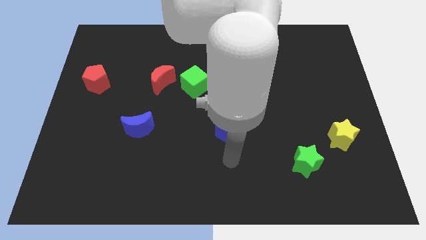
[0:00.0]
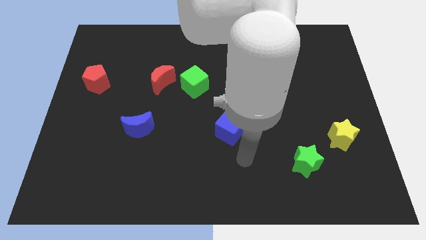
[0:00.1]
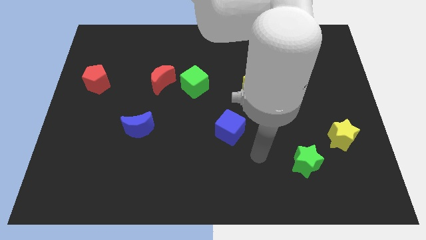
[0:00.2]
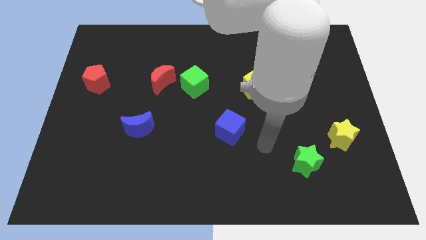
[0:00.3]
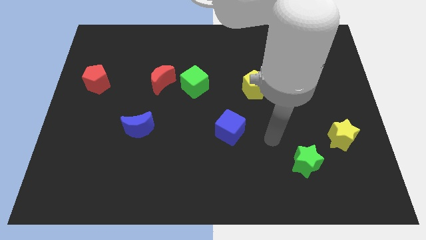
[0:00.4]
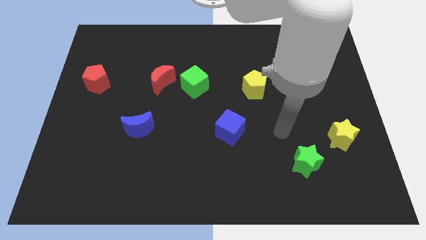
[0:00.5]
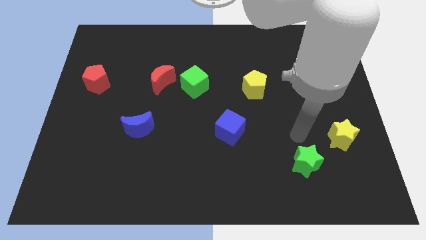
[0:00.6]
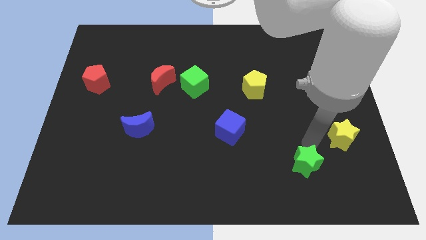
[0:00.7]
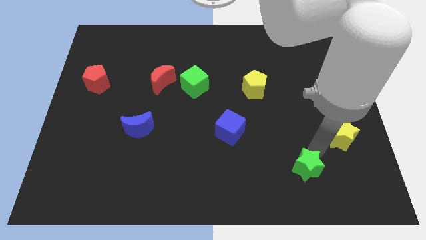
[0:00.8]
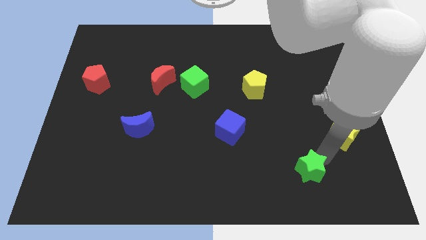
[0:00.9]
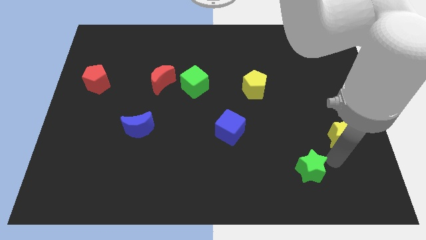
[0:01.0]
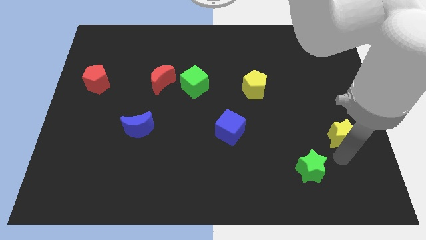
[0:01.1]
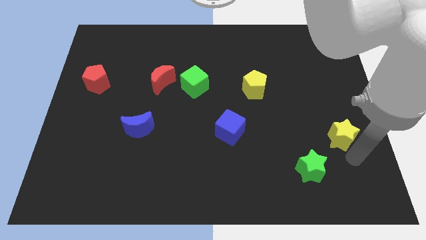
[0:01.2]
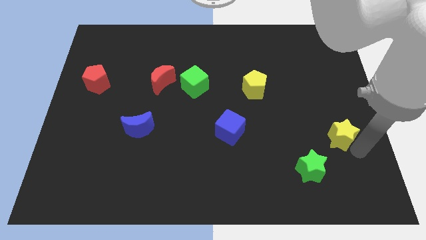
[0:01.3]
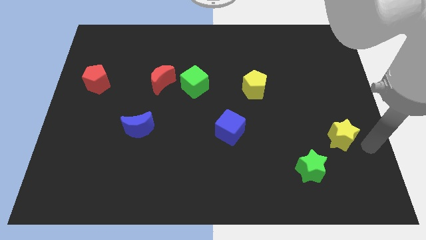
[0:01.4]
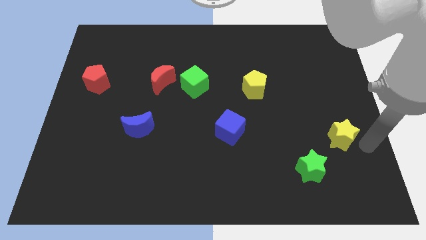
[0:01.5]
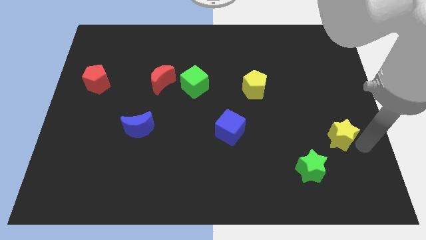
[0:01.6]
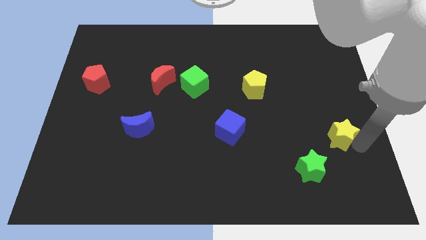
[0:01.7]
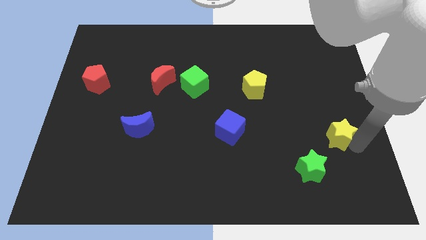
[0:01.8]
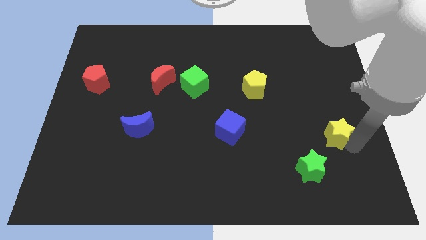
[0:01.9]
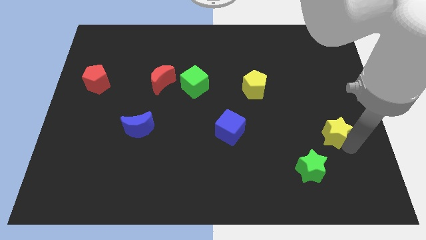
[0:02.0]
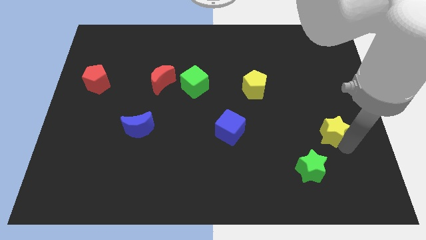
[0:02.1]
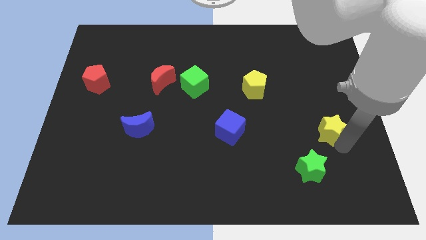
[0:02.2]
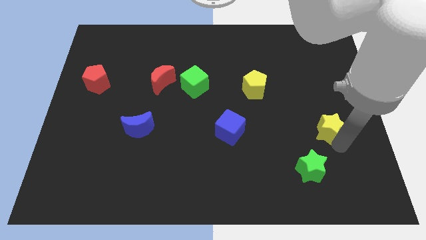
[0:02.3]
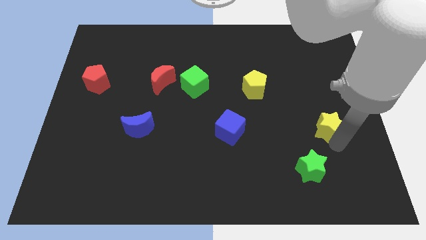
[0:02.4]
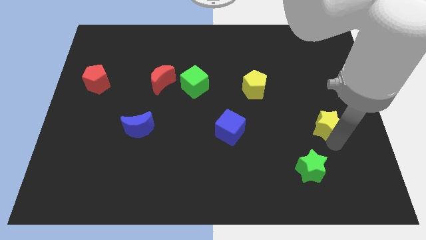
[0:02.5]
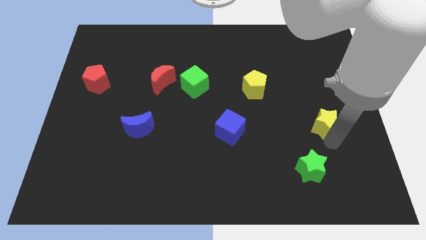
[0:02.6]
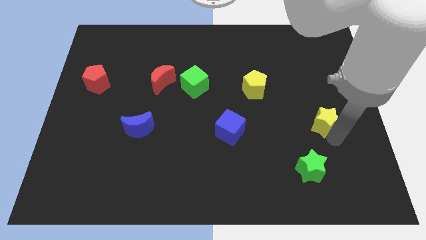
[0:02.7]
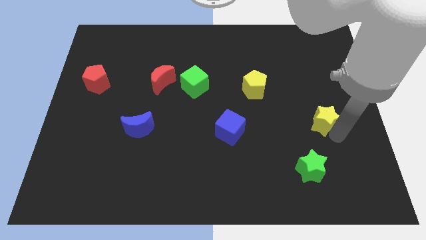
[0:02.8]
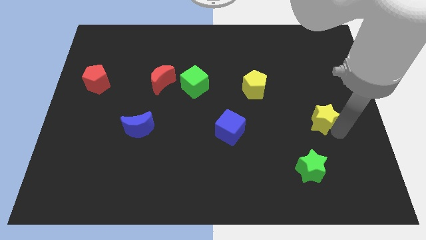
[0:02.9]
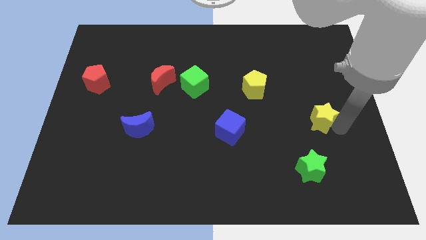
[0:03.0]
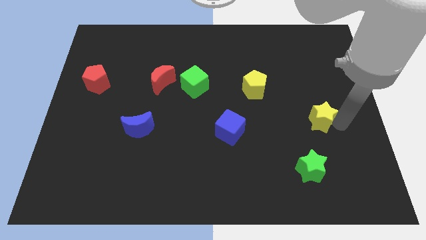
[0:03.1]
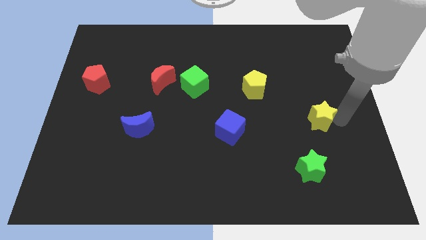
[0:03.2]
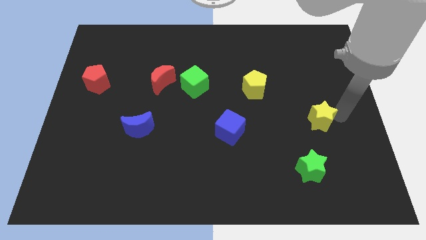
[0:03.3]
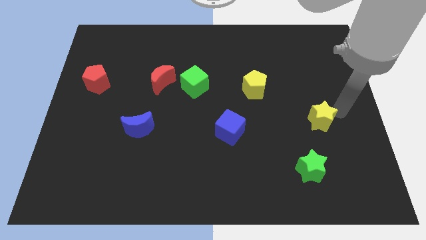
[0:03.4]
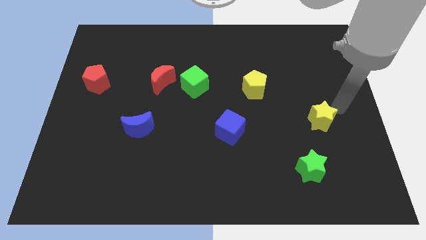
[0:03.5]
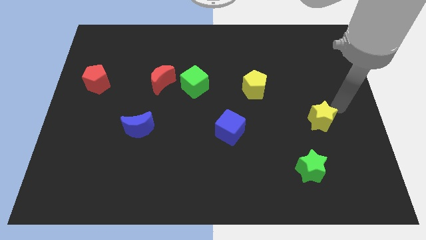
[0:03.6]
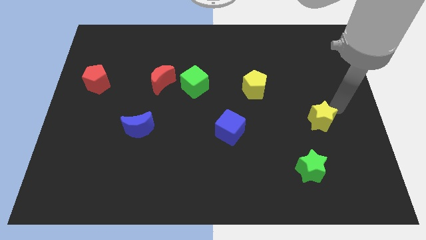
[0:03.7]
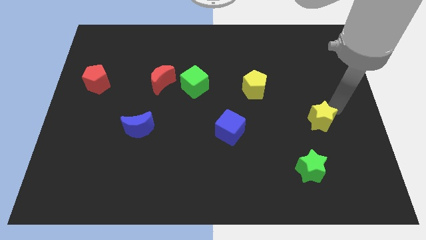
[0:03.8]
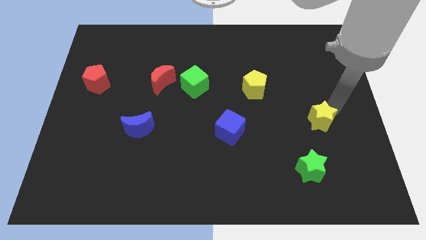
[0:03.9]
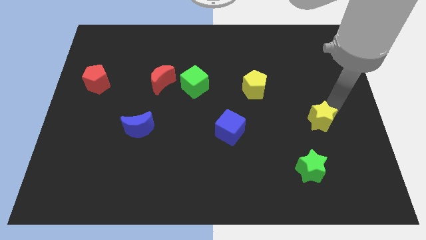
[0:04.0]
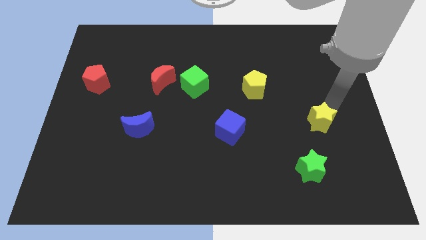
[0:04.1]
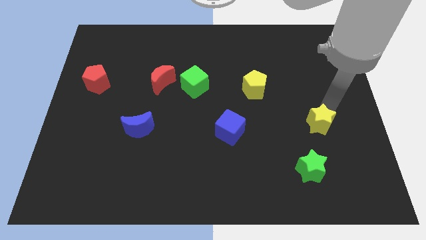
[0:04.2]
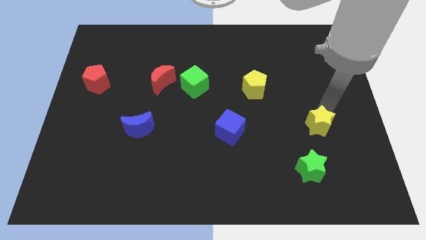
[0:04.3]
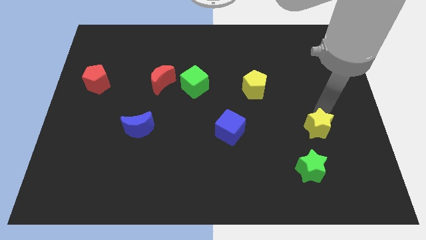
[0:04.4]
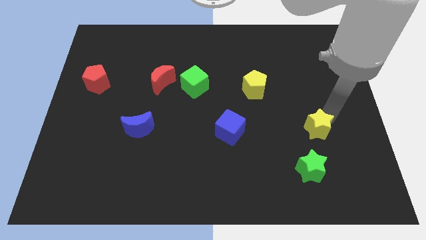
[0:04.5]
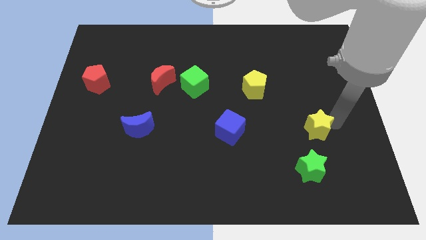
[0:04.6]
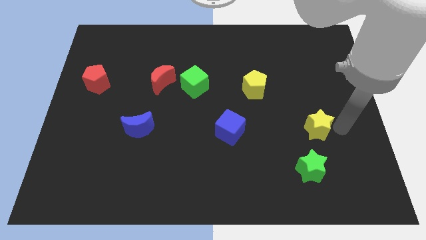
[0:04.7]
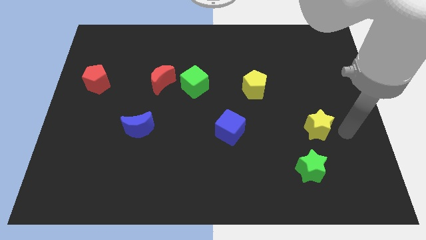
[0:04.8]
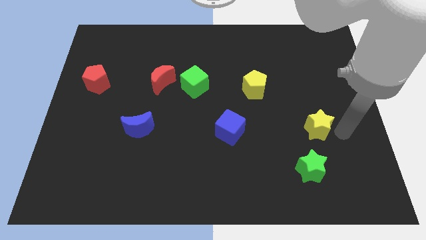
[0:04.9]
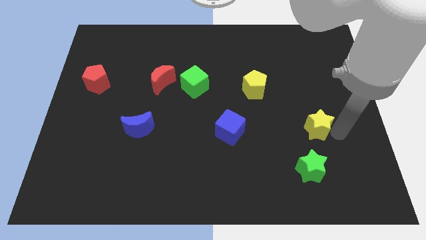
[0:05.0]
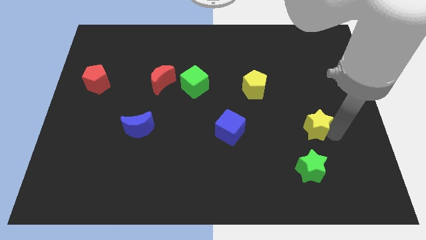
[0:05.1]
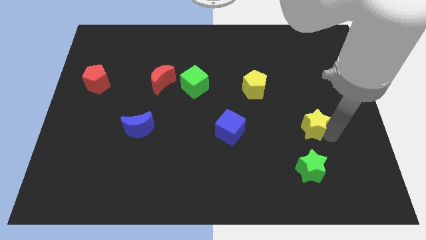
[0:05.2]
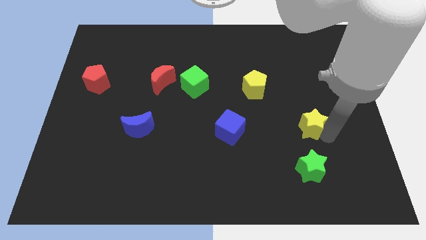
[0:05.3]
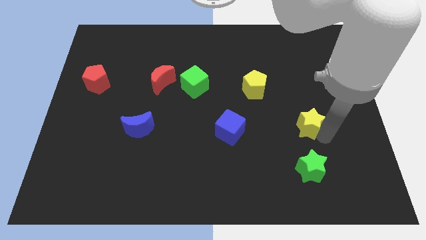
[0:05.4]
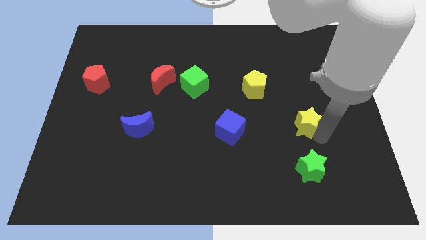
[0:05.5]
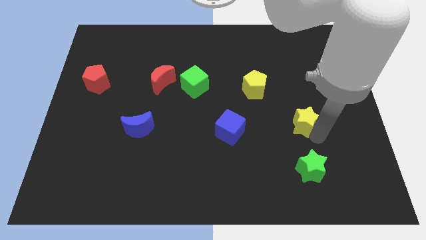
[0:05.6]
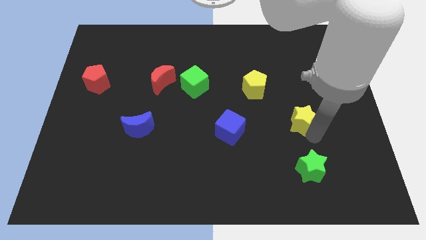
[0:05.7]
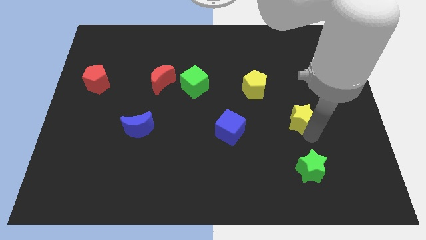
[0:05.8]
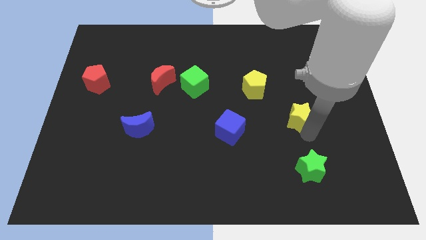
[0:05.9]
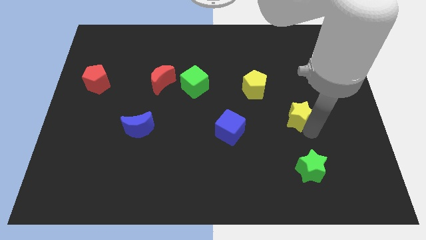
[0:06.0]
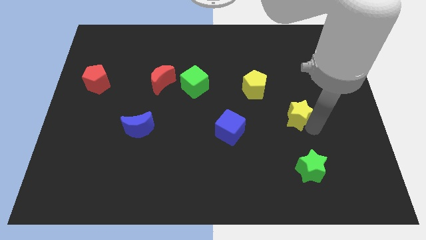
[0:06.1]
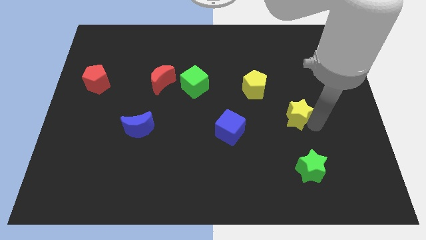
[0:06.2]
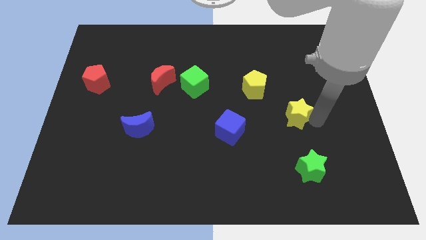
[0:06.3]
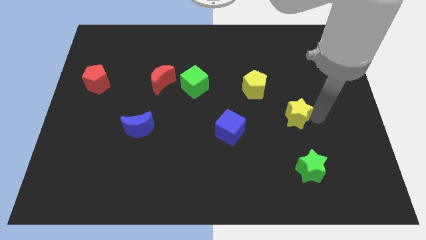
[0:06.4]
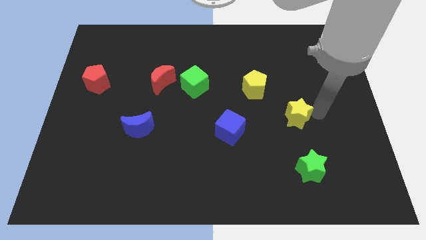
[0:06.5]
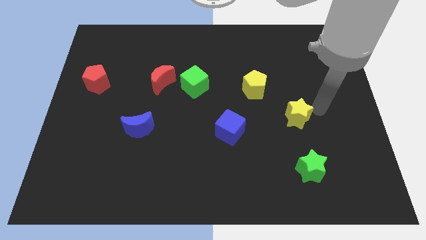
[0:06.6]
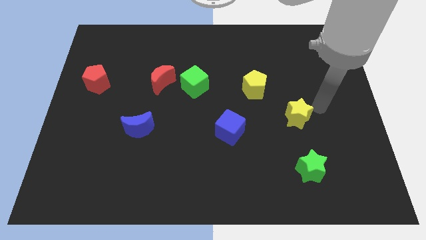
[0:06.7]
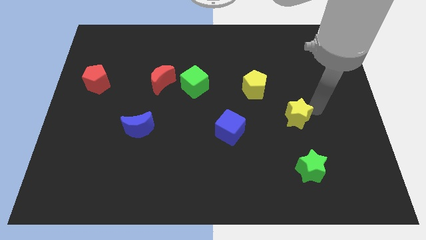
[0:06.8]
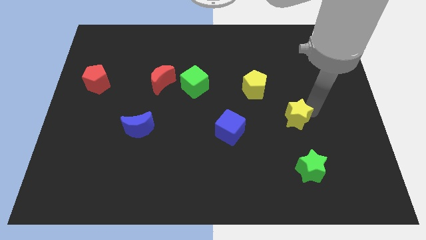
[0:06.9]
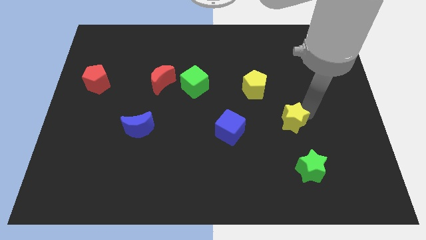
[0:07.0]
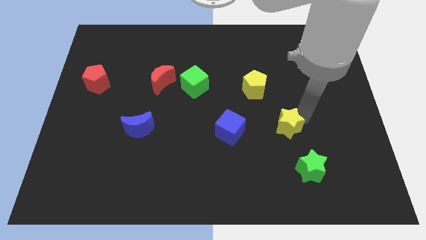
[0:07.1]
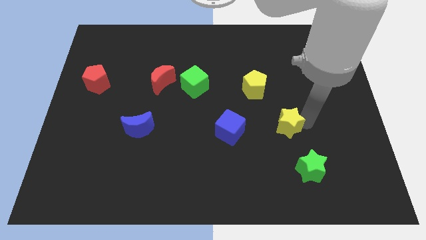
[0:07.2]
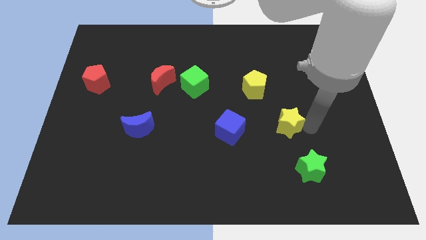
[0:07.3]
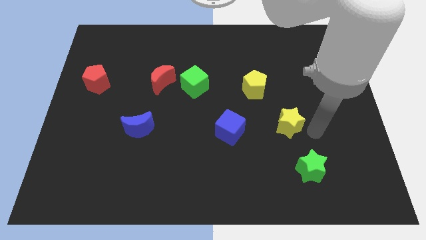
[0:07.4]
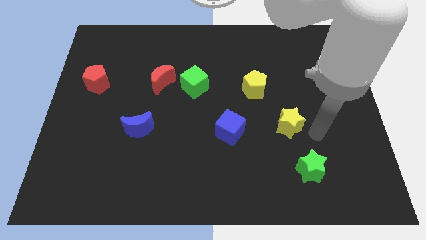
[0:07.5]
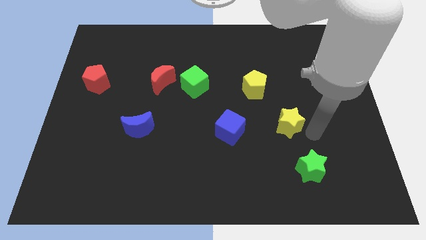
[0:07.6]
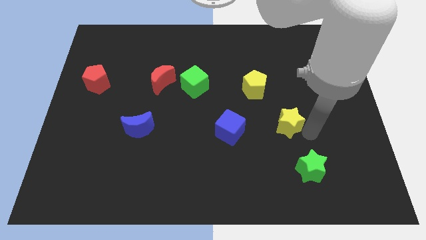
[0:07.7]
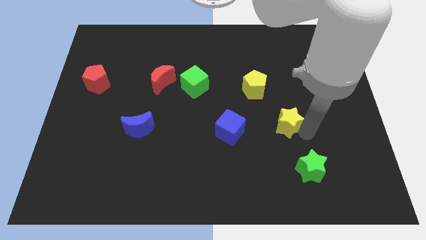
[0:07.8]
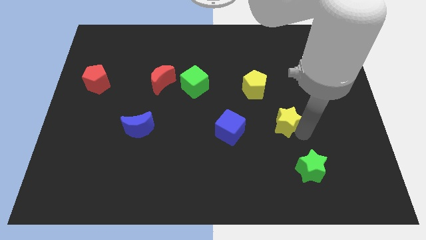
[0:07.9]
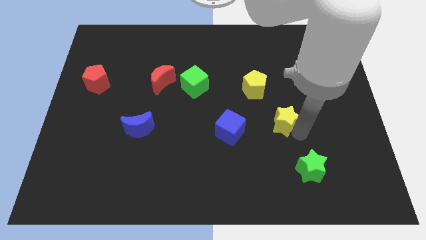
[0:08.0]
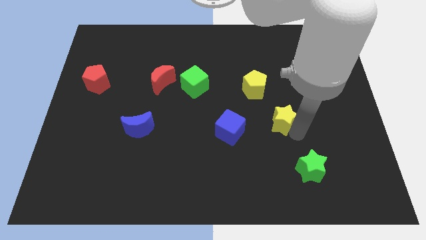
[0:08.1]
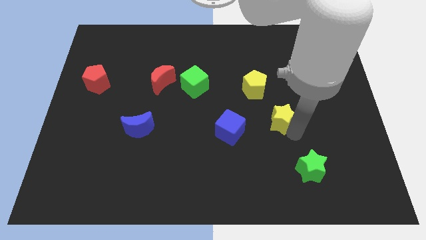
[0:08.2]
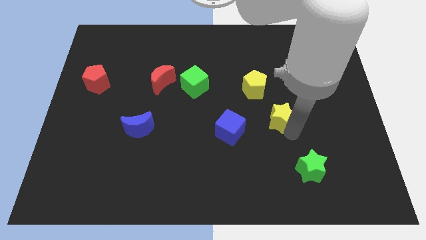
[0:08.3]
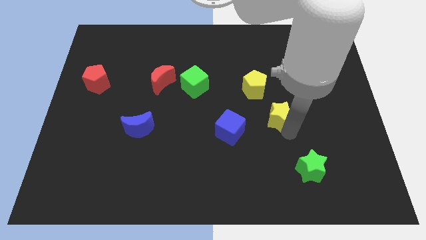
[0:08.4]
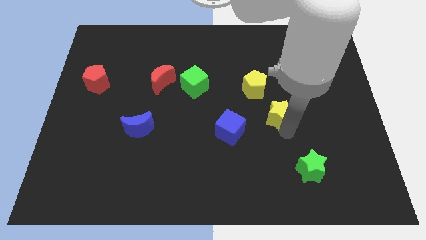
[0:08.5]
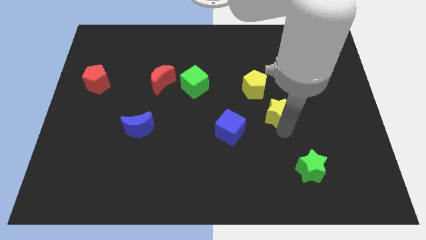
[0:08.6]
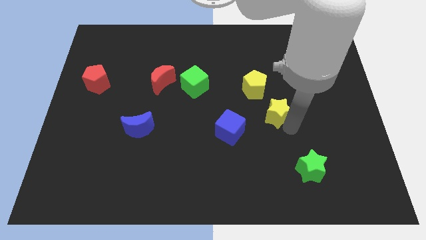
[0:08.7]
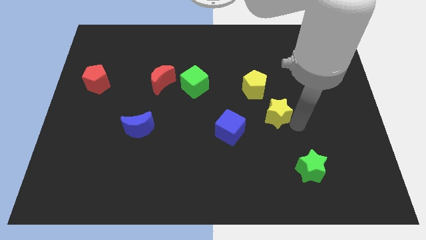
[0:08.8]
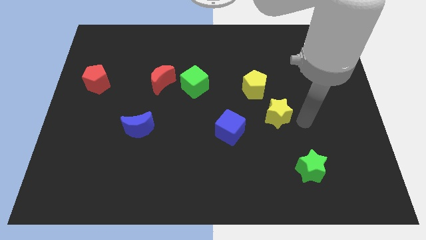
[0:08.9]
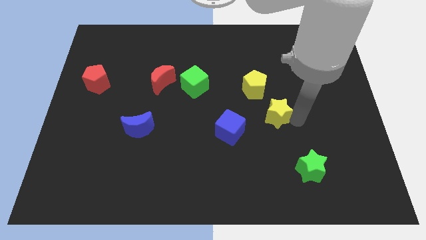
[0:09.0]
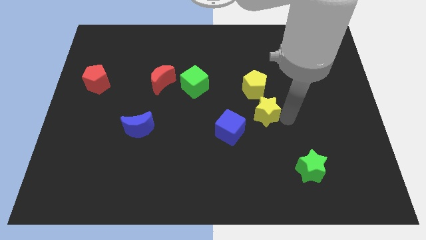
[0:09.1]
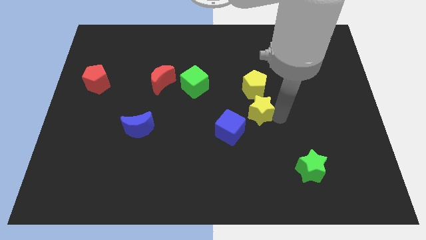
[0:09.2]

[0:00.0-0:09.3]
slide the yellow star to the middle
